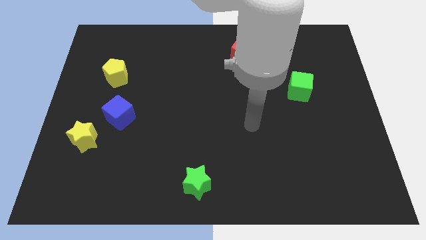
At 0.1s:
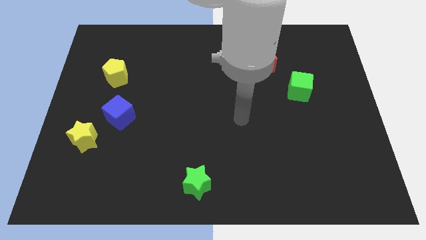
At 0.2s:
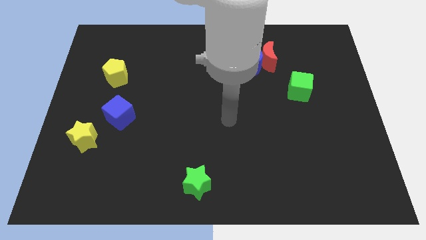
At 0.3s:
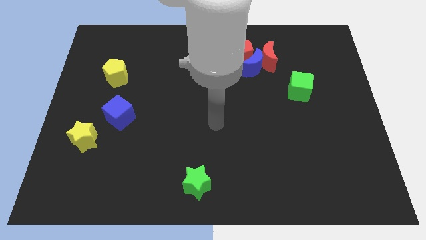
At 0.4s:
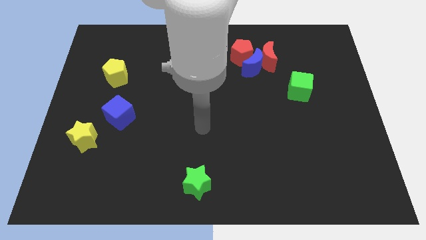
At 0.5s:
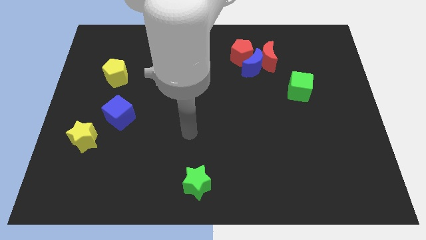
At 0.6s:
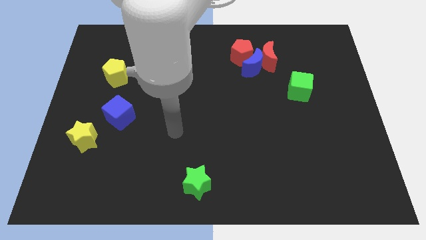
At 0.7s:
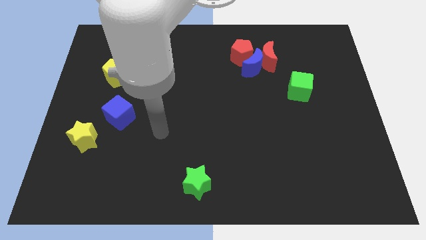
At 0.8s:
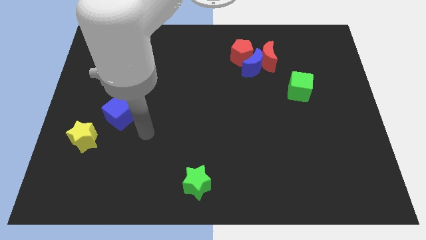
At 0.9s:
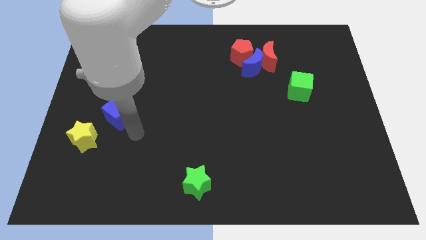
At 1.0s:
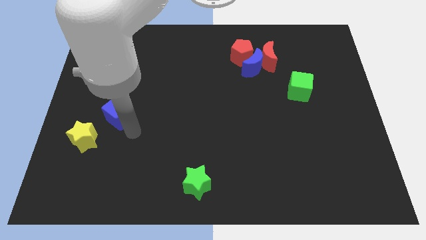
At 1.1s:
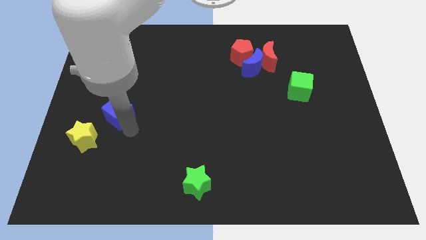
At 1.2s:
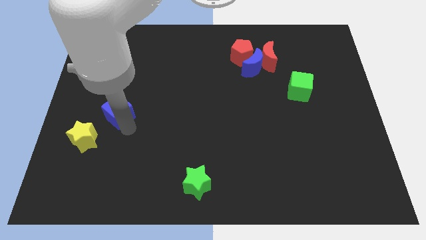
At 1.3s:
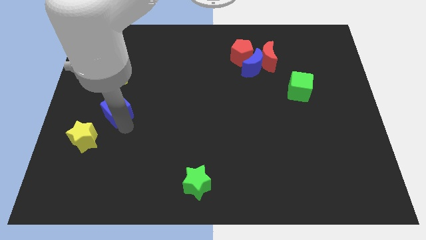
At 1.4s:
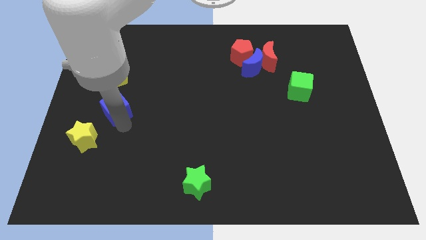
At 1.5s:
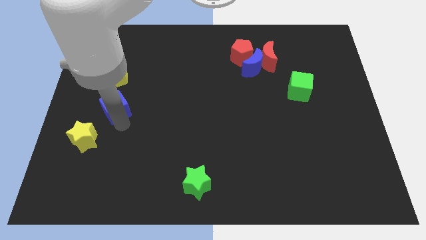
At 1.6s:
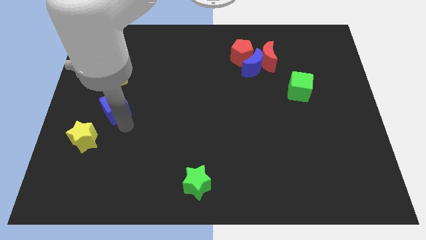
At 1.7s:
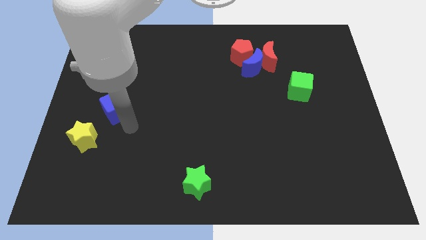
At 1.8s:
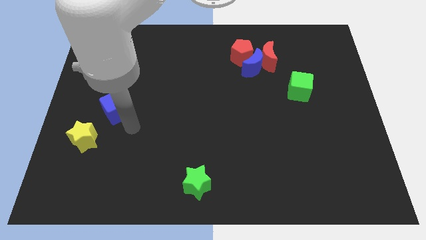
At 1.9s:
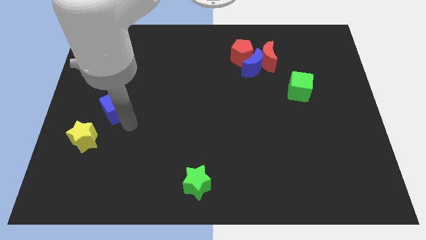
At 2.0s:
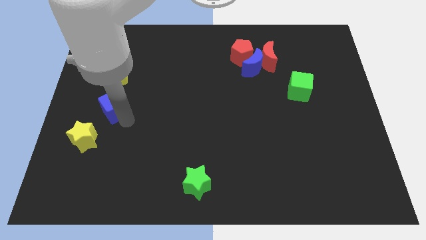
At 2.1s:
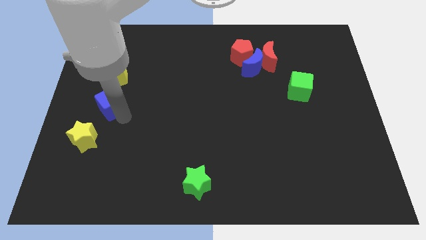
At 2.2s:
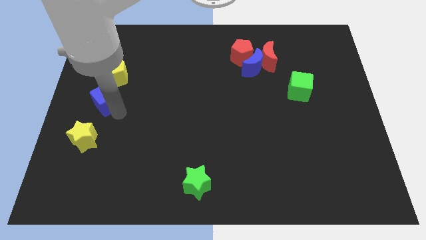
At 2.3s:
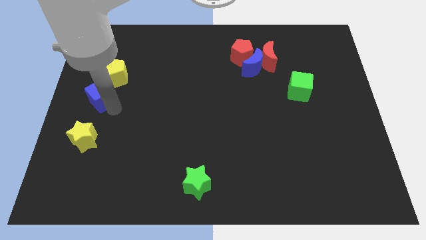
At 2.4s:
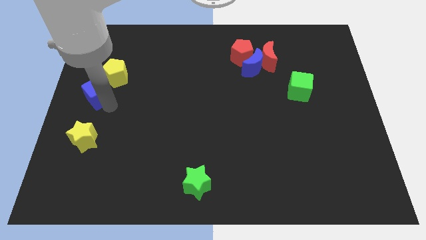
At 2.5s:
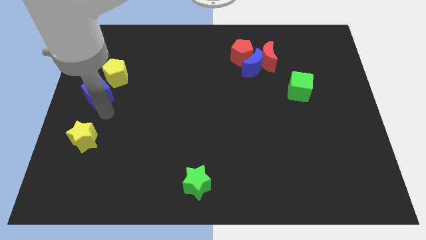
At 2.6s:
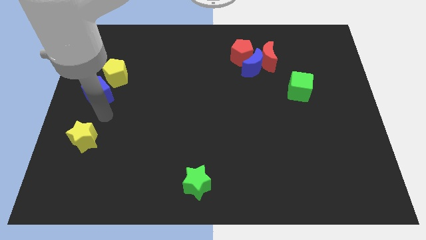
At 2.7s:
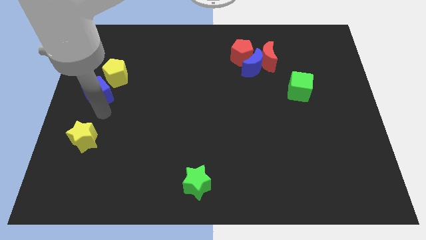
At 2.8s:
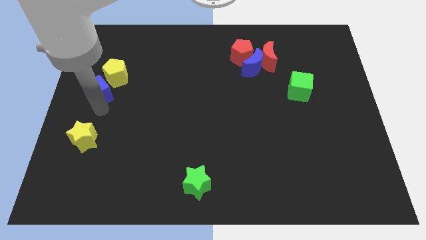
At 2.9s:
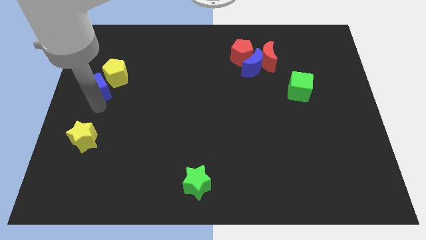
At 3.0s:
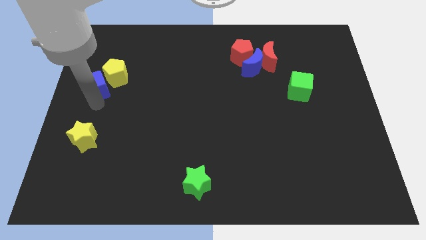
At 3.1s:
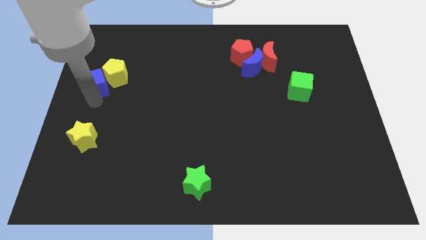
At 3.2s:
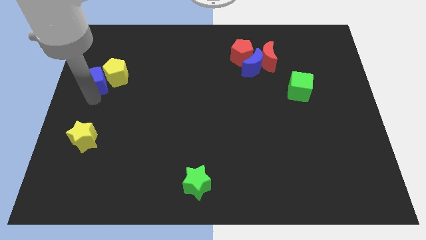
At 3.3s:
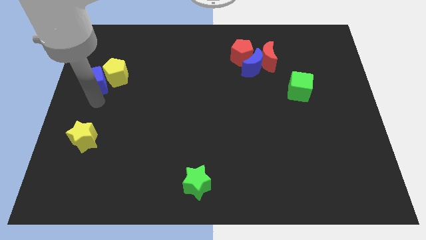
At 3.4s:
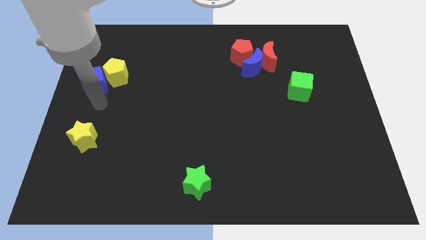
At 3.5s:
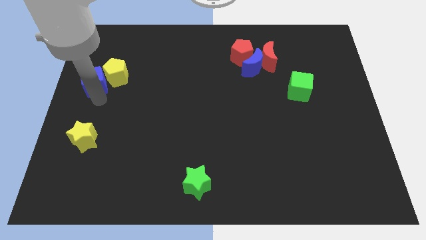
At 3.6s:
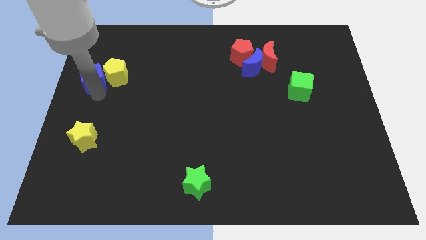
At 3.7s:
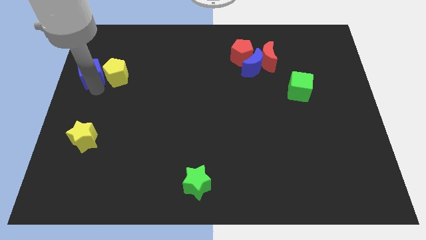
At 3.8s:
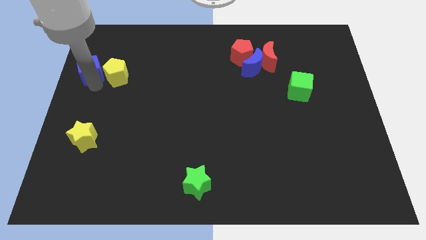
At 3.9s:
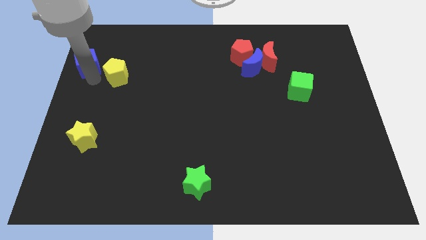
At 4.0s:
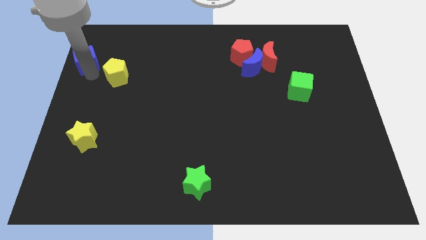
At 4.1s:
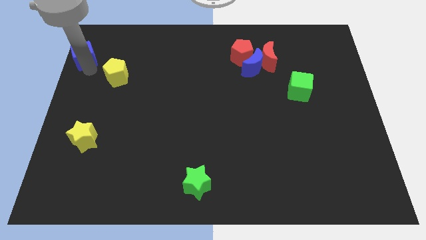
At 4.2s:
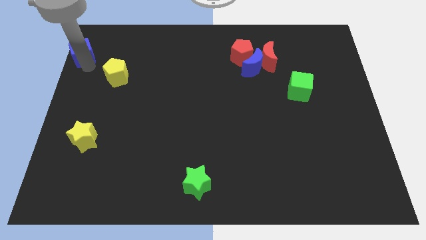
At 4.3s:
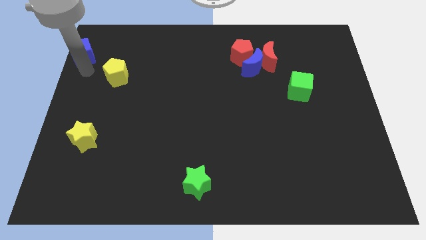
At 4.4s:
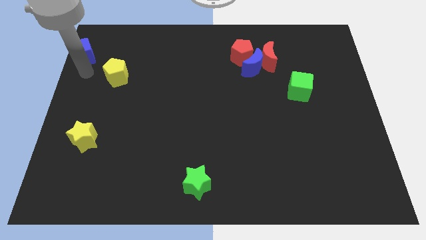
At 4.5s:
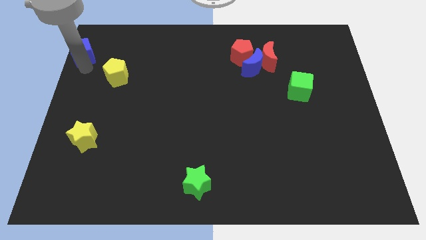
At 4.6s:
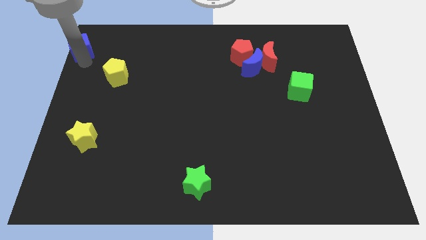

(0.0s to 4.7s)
move the blue cube to the top left corner

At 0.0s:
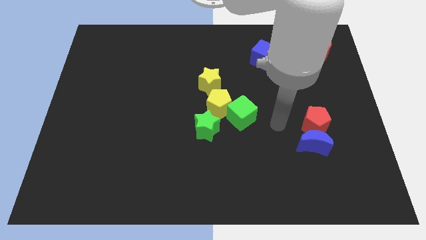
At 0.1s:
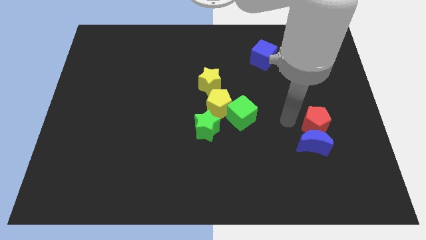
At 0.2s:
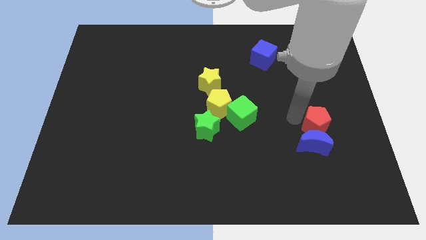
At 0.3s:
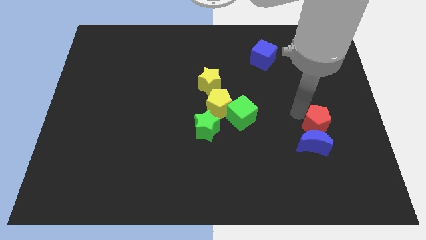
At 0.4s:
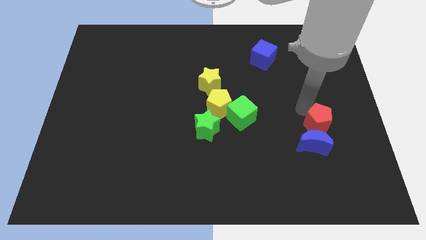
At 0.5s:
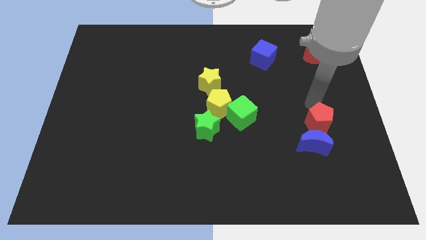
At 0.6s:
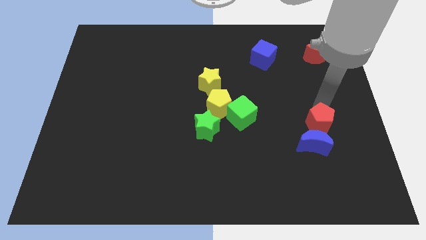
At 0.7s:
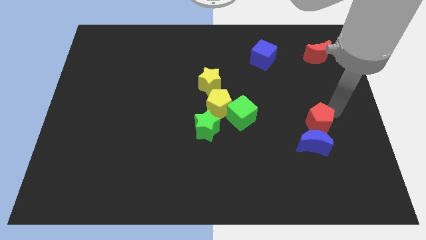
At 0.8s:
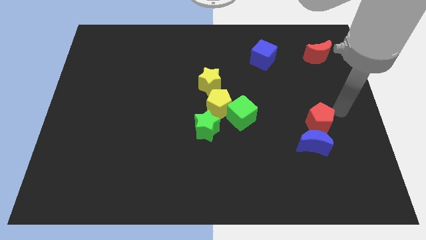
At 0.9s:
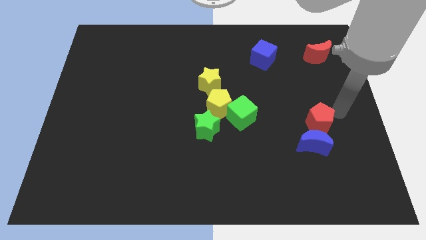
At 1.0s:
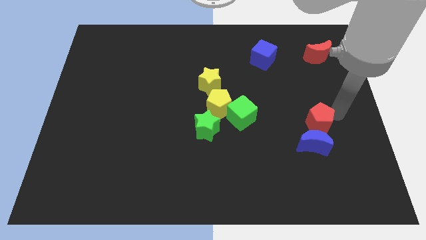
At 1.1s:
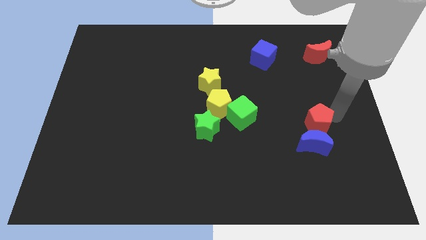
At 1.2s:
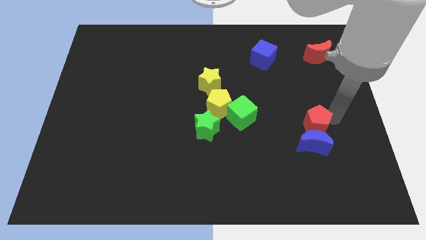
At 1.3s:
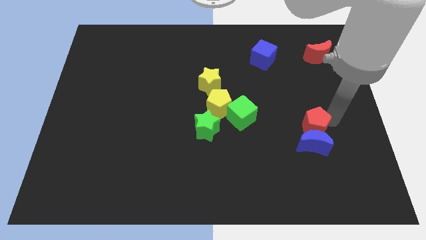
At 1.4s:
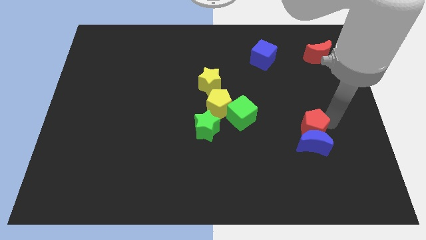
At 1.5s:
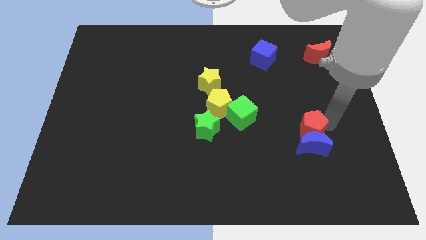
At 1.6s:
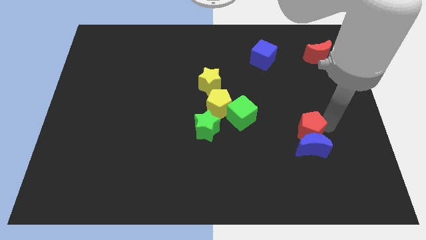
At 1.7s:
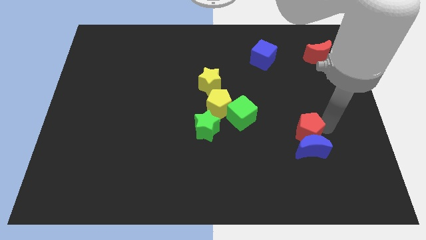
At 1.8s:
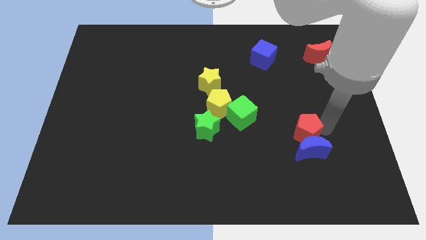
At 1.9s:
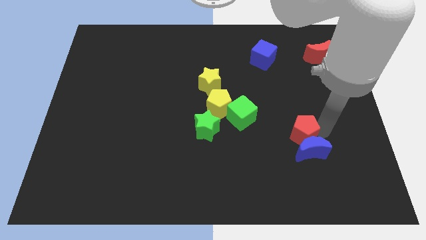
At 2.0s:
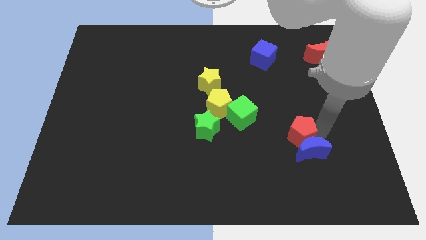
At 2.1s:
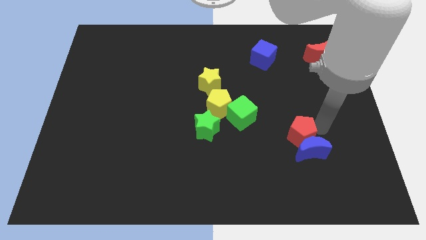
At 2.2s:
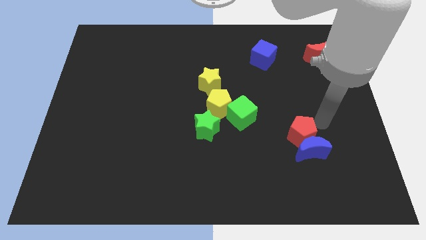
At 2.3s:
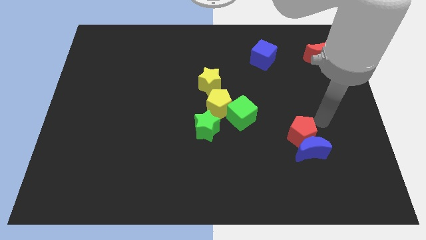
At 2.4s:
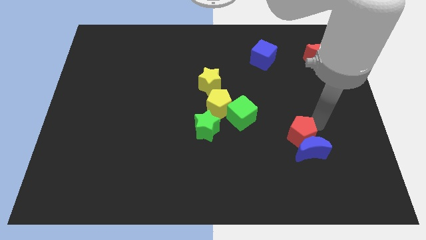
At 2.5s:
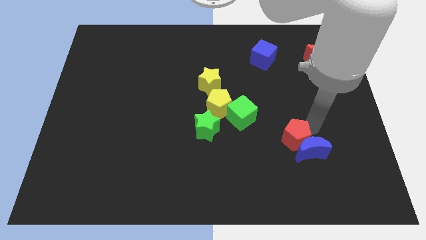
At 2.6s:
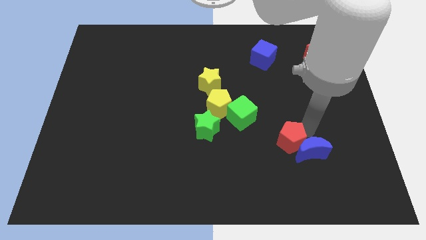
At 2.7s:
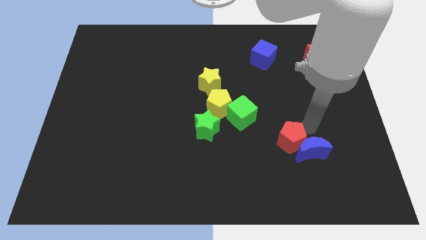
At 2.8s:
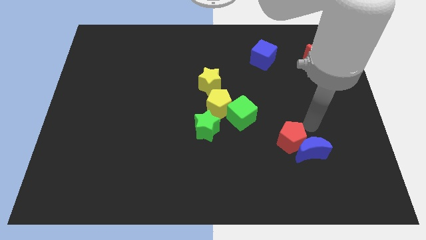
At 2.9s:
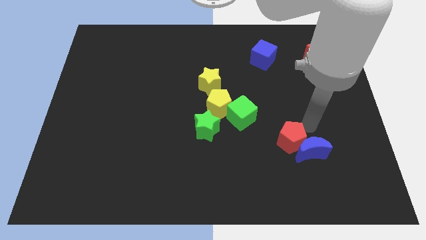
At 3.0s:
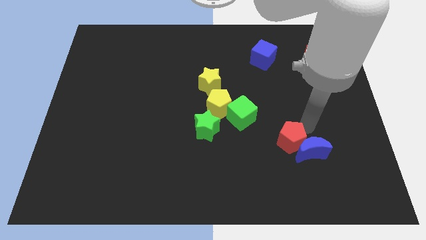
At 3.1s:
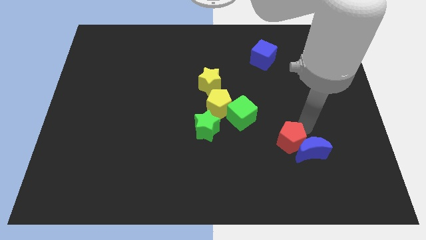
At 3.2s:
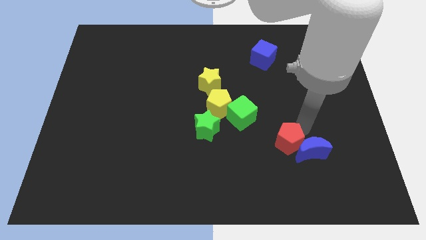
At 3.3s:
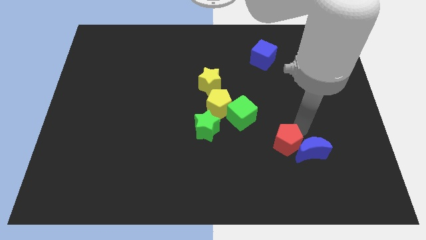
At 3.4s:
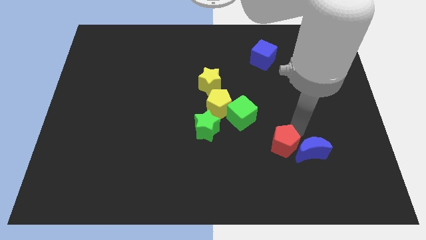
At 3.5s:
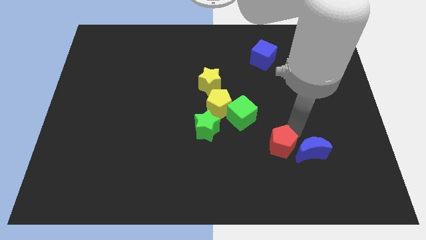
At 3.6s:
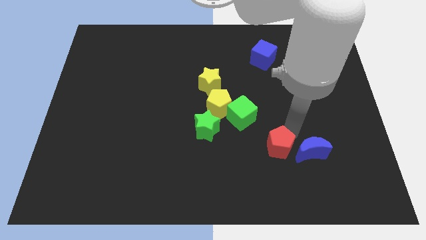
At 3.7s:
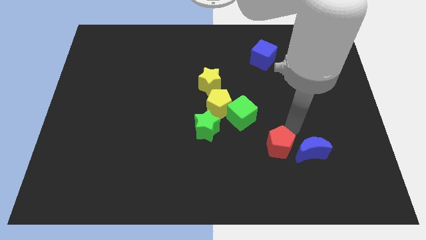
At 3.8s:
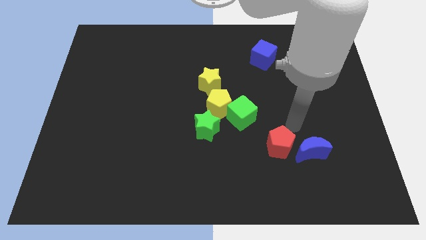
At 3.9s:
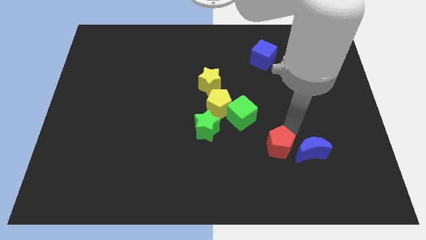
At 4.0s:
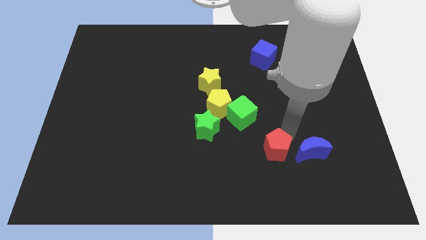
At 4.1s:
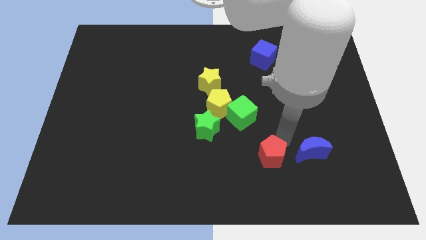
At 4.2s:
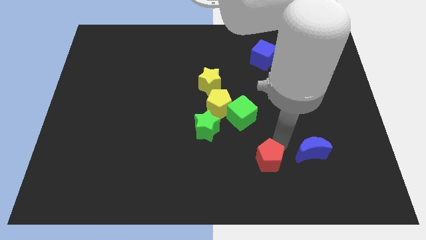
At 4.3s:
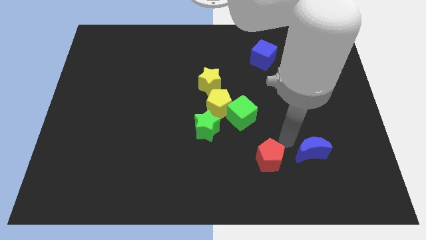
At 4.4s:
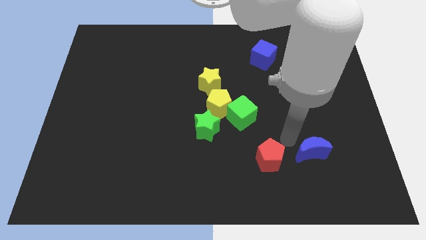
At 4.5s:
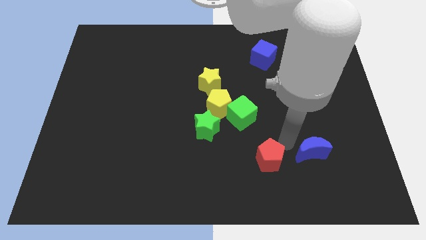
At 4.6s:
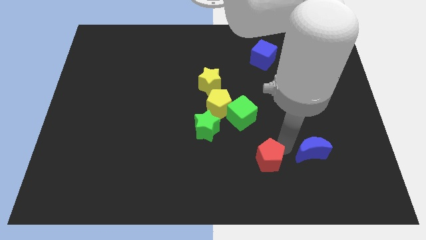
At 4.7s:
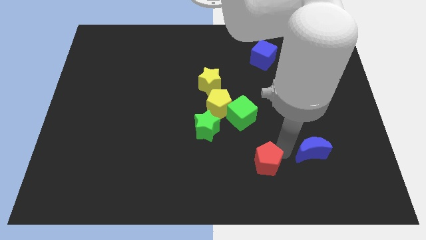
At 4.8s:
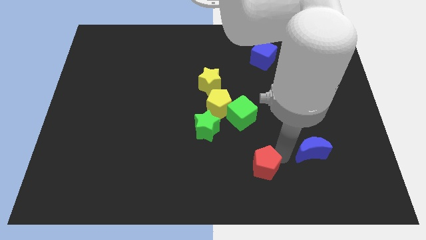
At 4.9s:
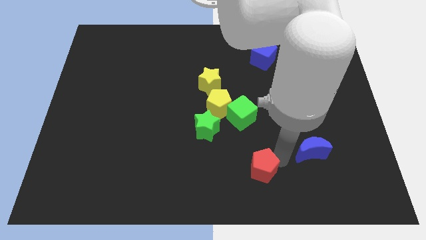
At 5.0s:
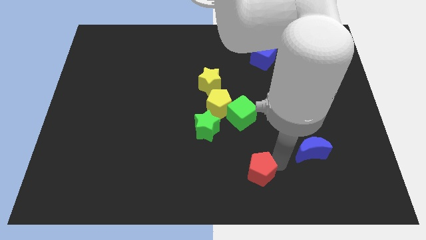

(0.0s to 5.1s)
push the red pentagon to the bottom
